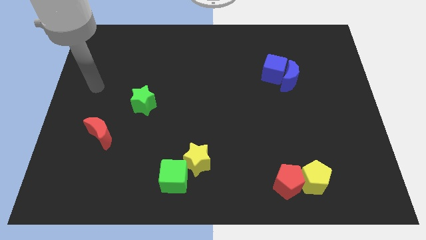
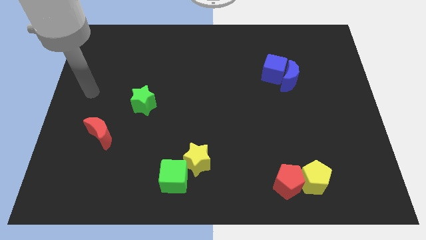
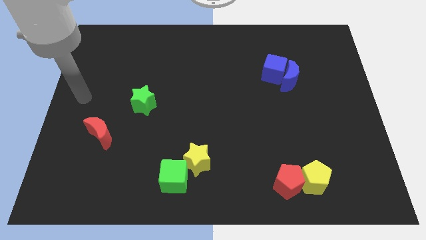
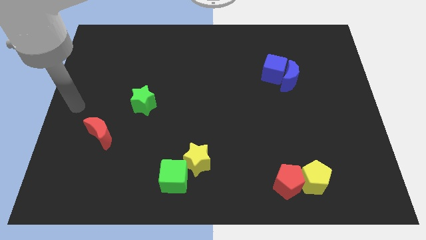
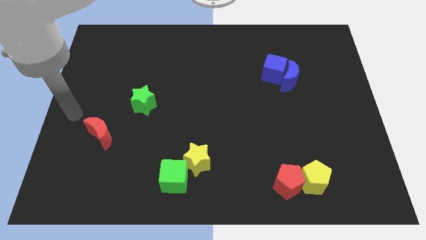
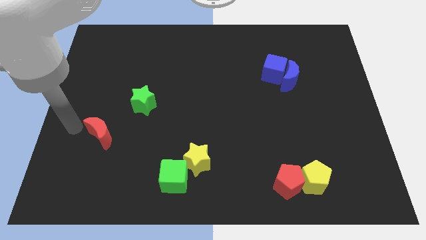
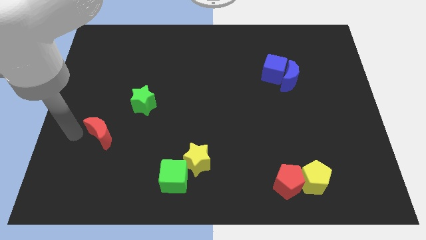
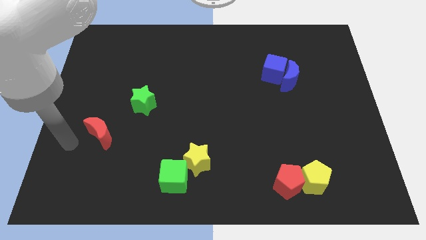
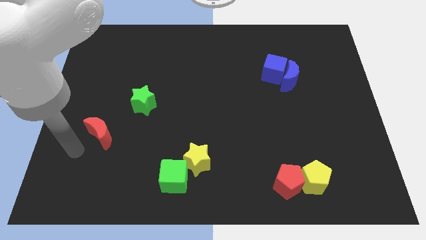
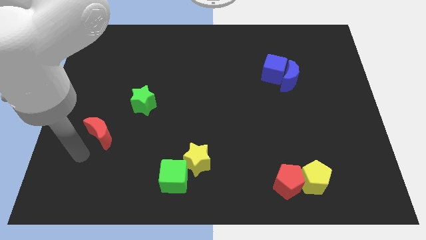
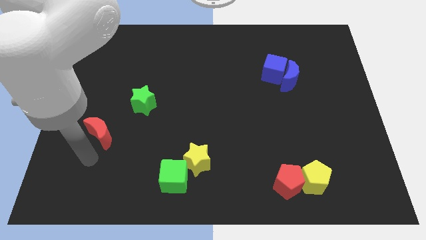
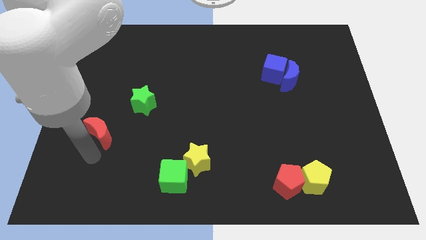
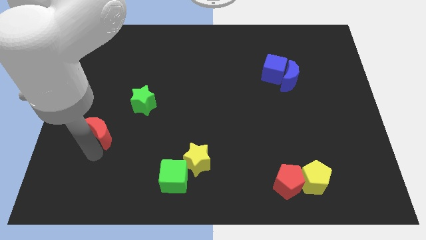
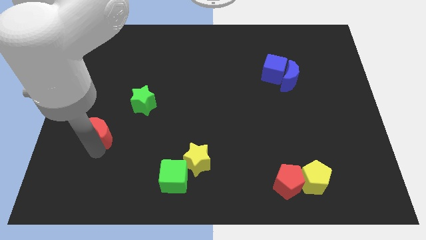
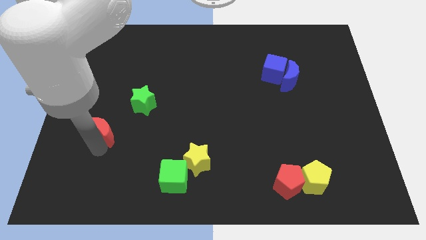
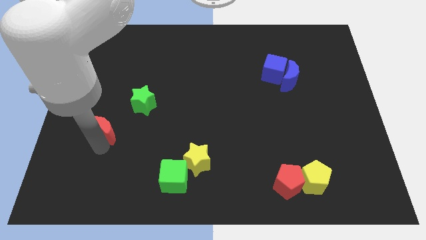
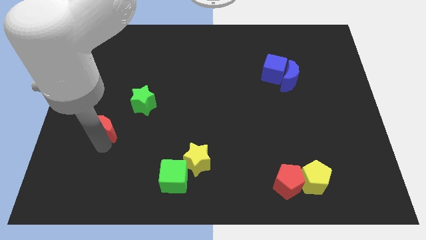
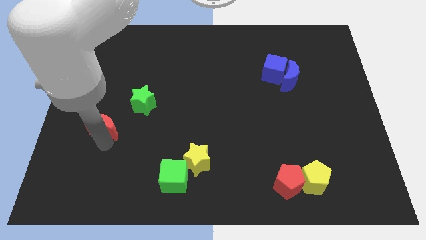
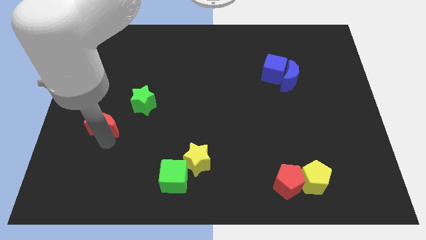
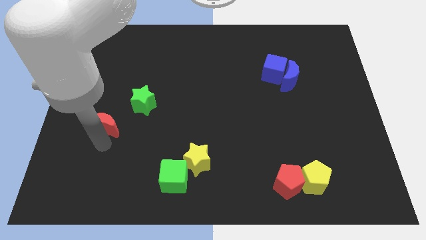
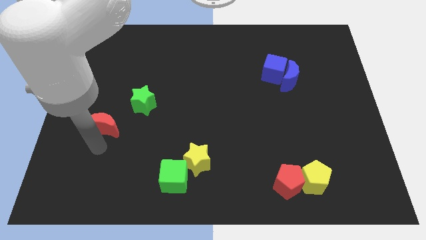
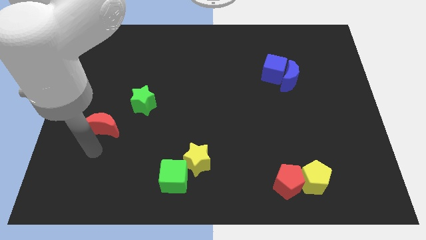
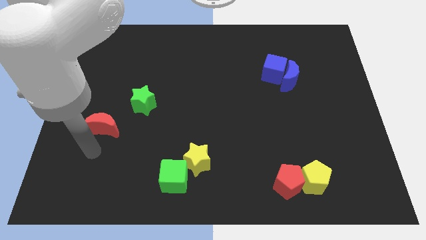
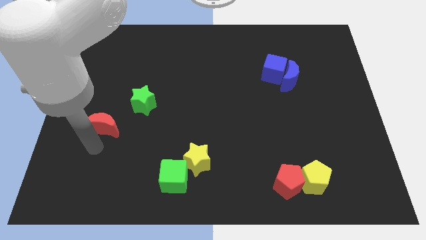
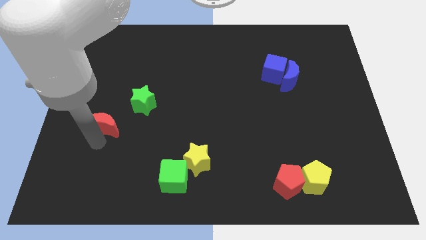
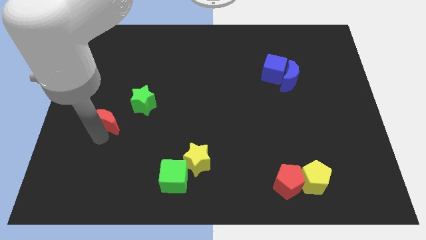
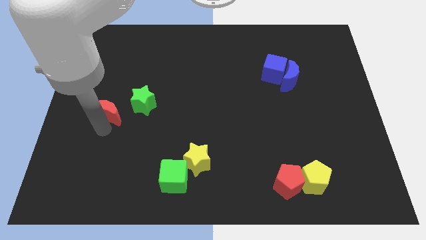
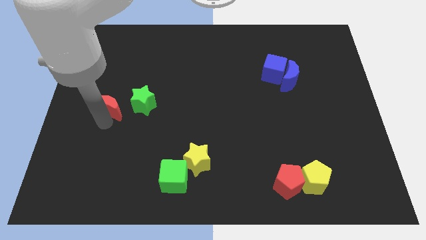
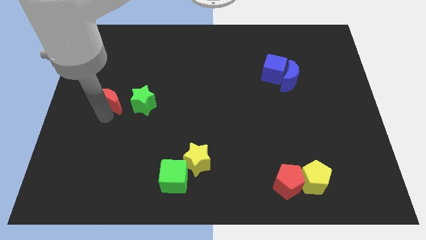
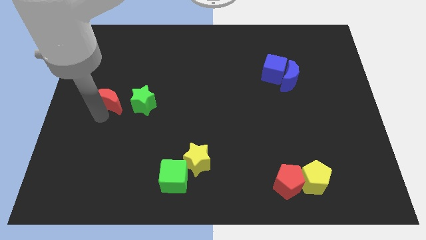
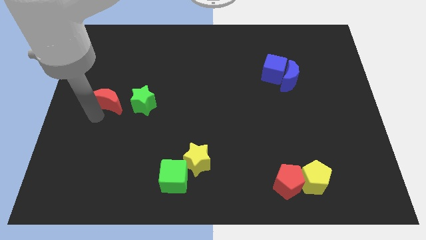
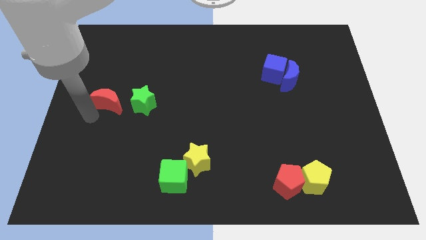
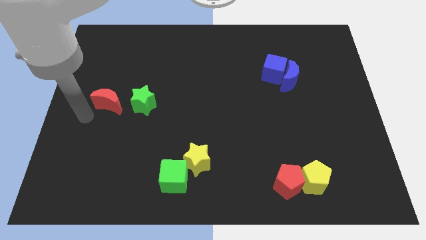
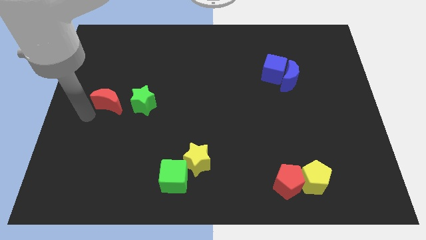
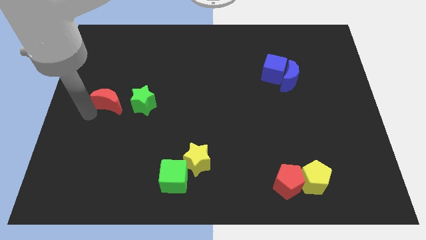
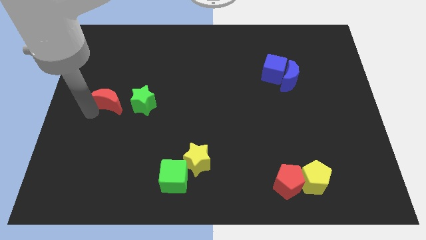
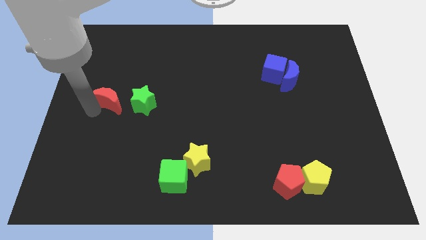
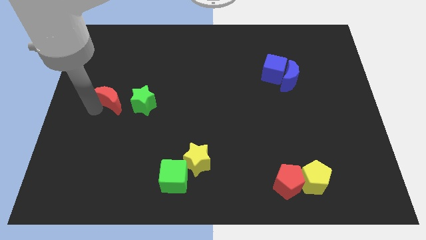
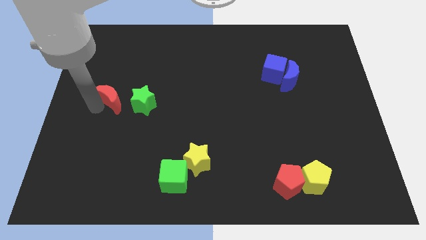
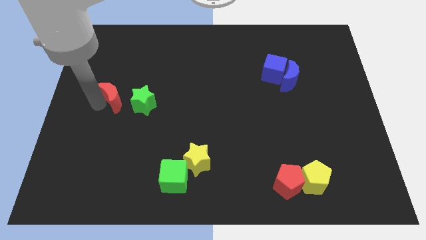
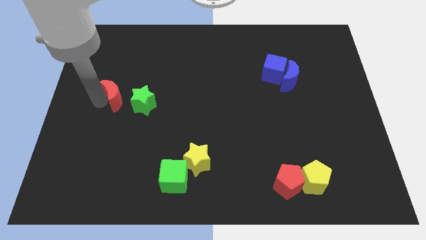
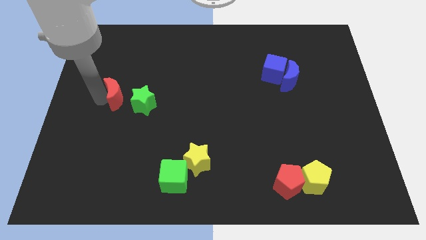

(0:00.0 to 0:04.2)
move the red moon up and right a bit

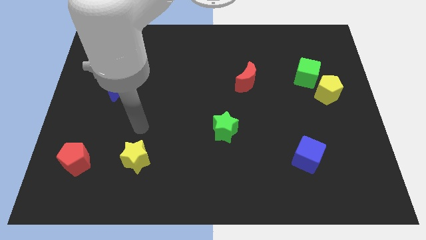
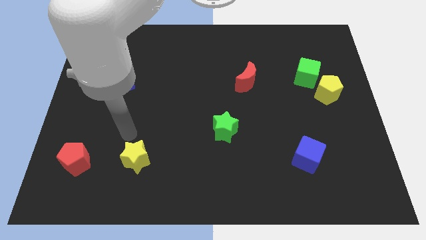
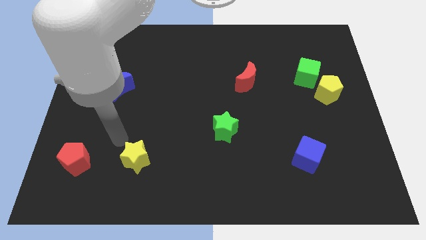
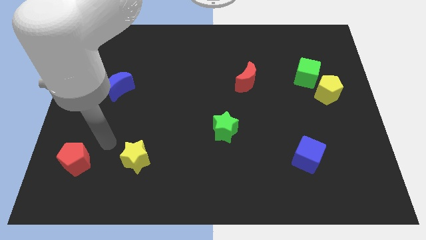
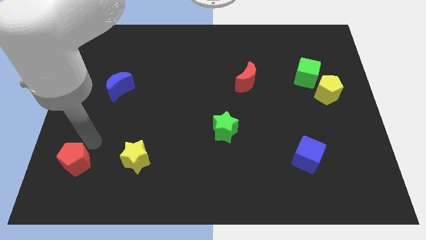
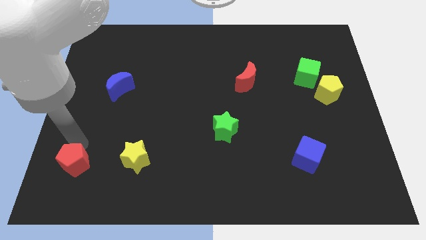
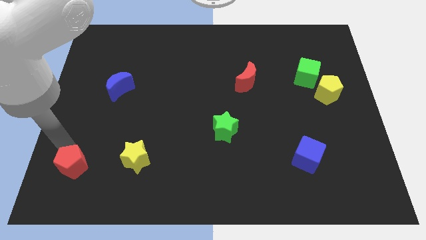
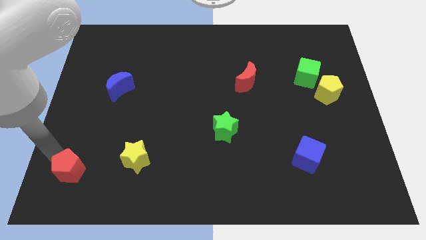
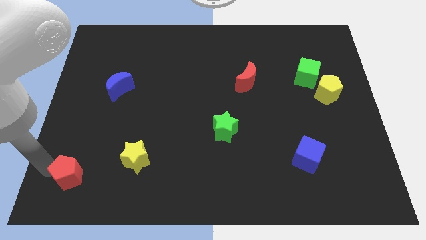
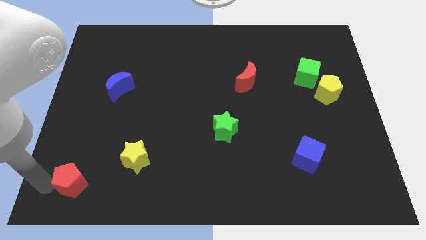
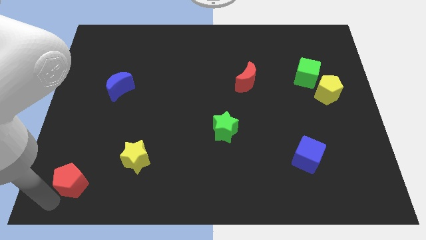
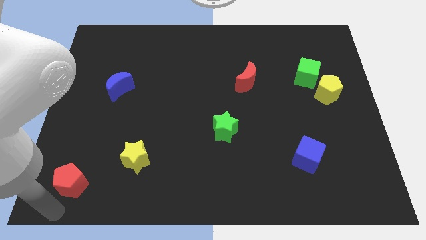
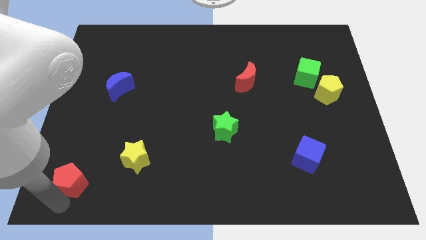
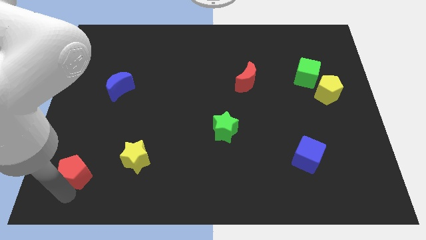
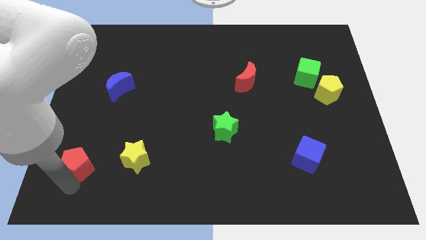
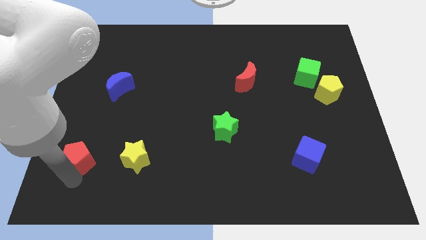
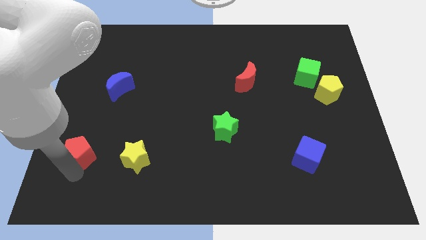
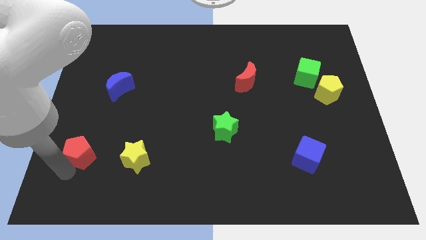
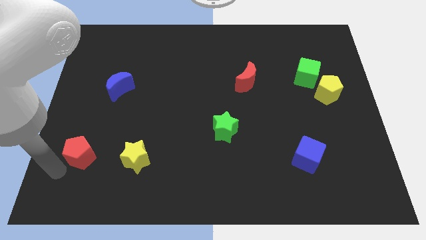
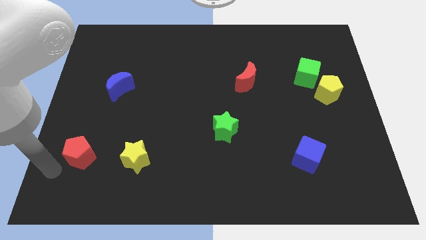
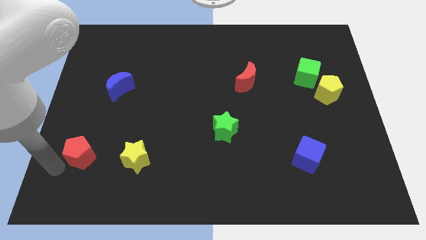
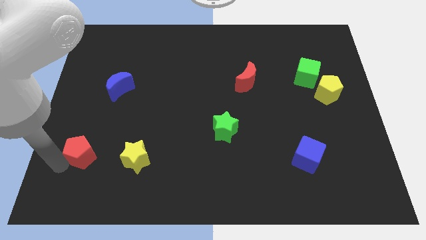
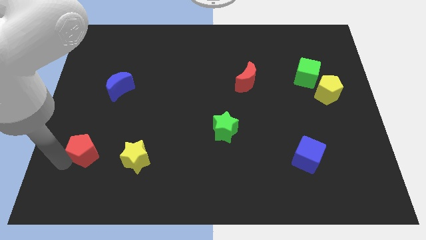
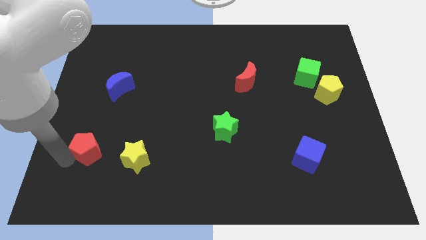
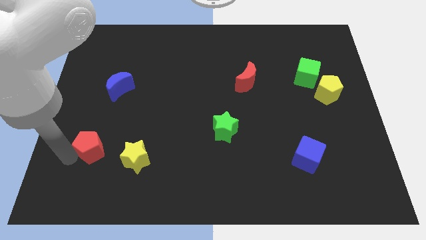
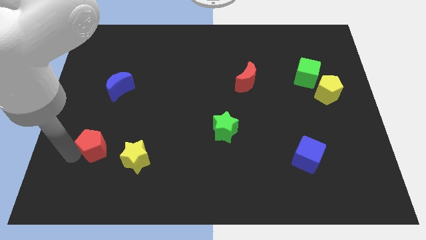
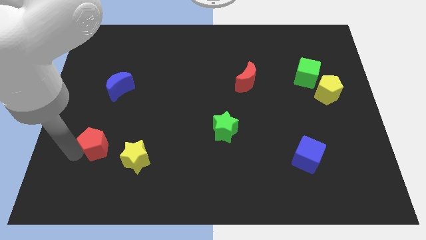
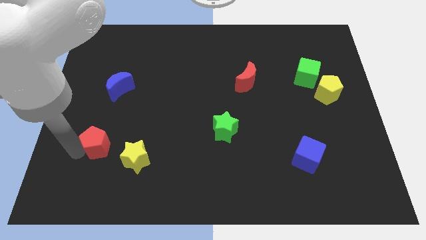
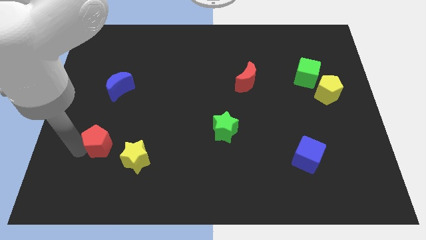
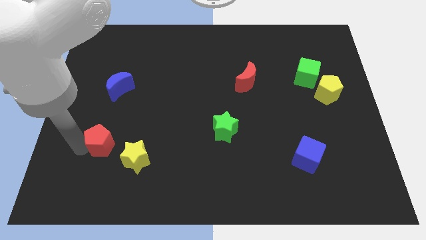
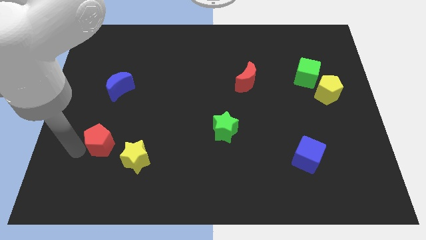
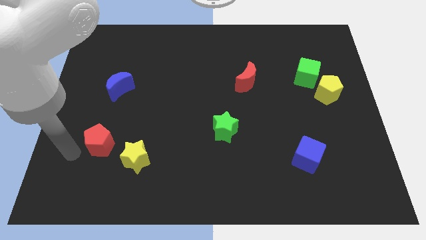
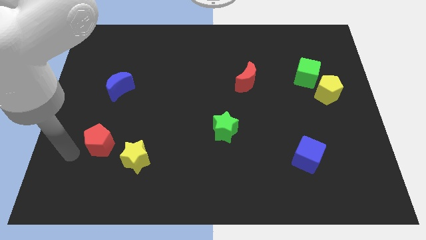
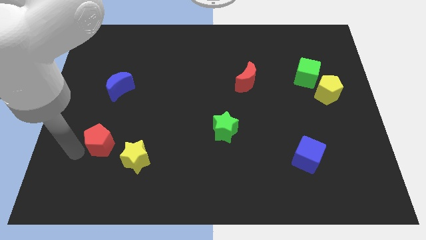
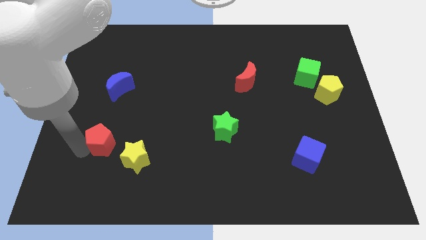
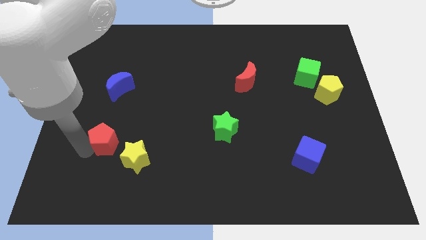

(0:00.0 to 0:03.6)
move the red pentagon a little up and to the right diagonally
